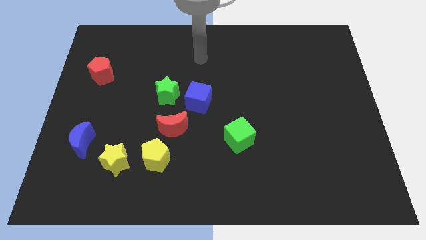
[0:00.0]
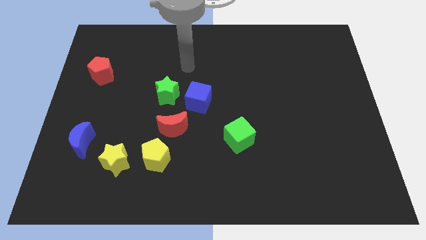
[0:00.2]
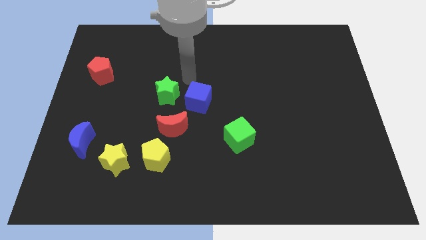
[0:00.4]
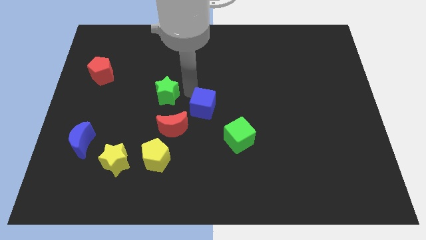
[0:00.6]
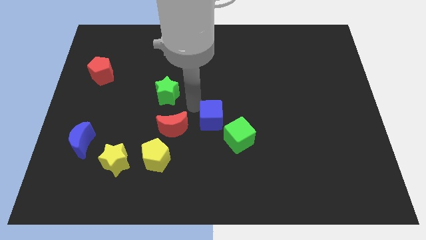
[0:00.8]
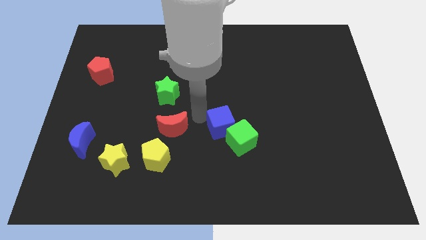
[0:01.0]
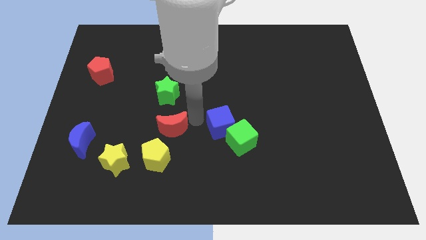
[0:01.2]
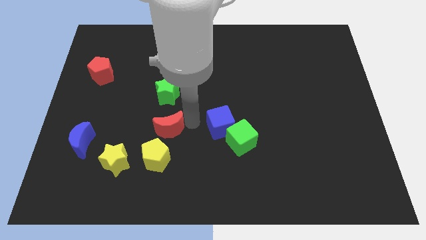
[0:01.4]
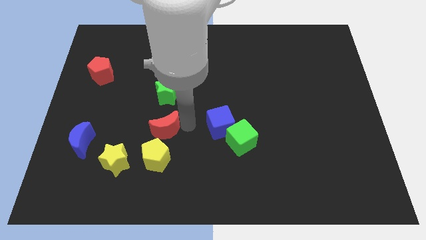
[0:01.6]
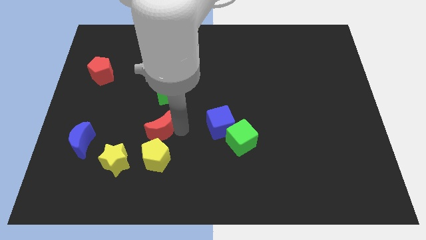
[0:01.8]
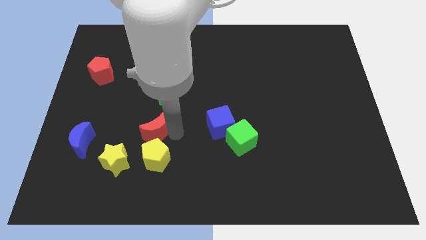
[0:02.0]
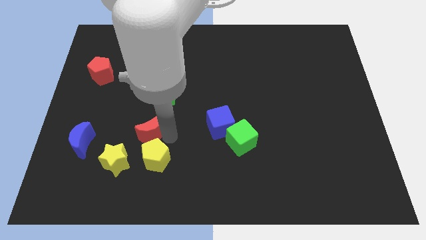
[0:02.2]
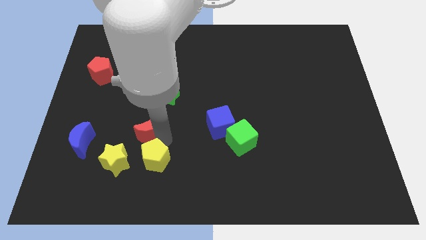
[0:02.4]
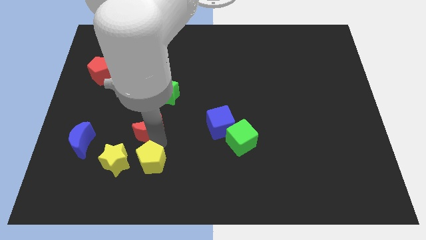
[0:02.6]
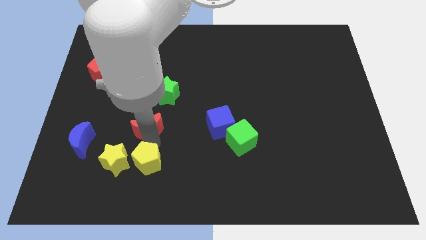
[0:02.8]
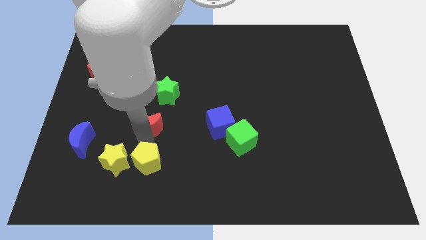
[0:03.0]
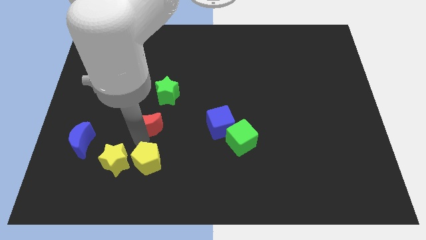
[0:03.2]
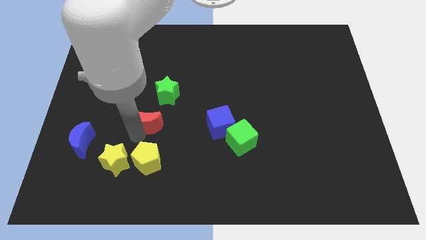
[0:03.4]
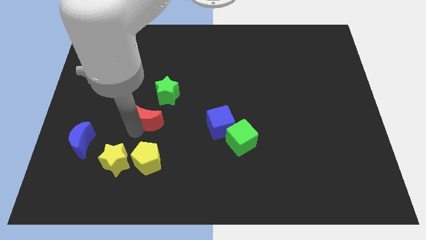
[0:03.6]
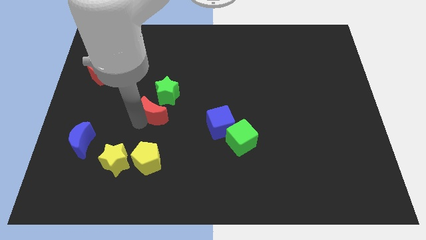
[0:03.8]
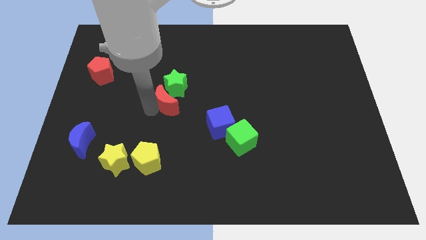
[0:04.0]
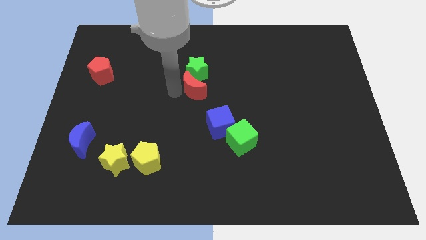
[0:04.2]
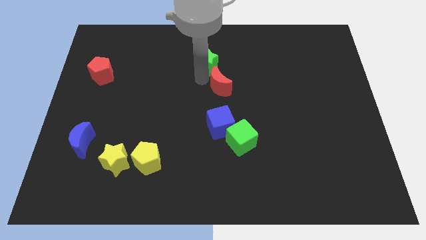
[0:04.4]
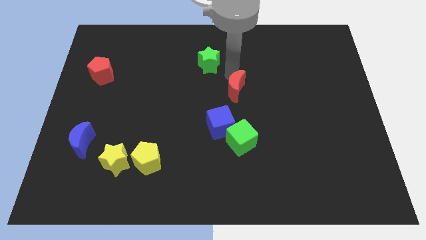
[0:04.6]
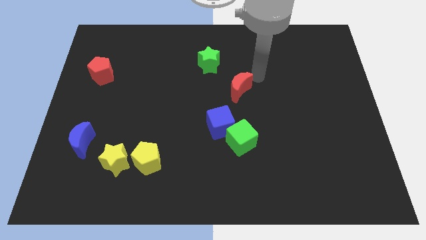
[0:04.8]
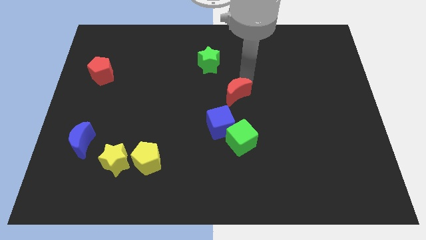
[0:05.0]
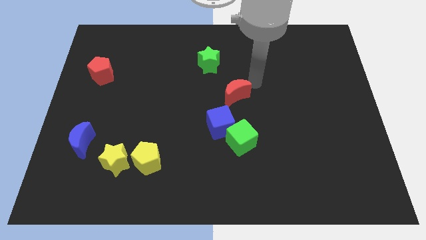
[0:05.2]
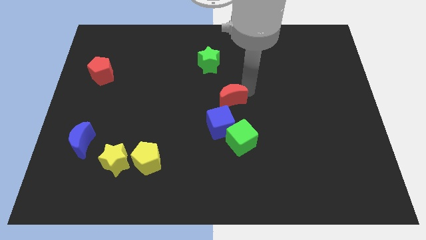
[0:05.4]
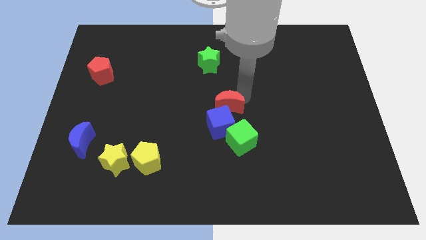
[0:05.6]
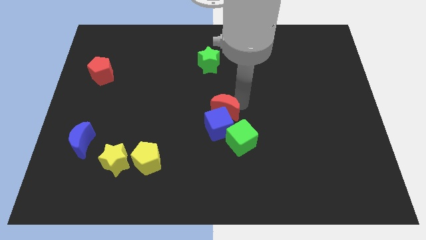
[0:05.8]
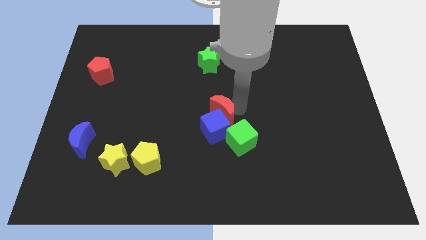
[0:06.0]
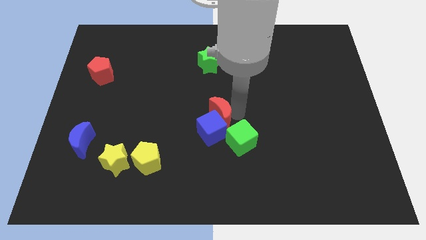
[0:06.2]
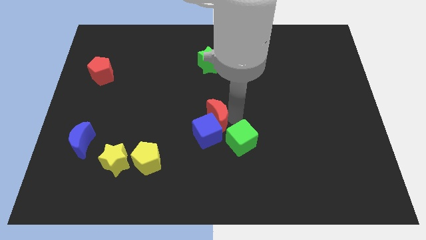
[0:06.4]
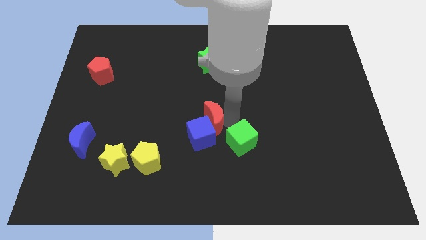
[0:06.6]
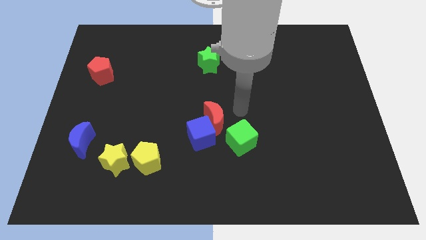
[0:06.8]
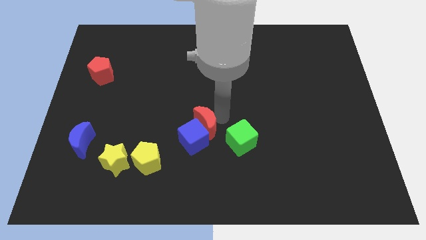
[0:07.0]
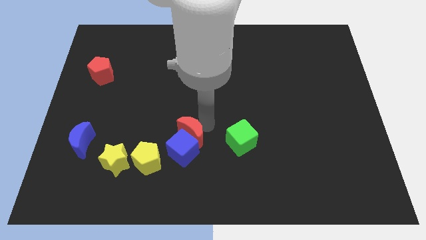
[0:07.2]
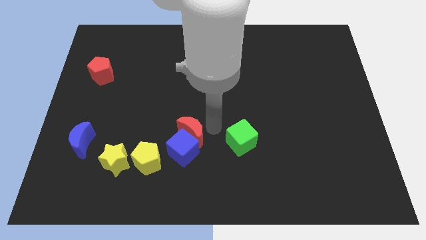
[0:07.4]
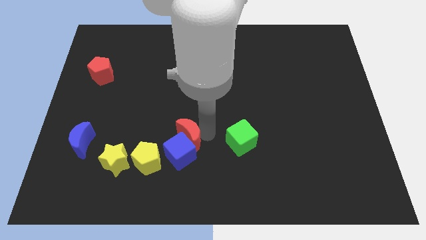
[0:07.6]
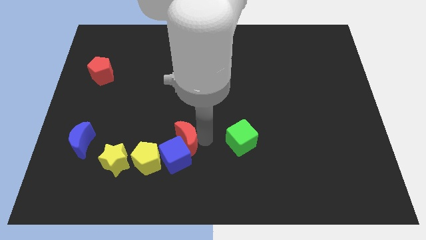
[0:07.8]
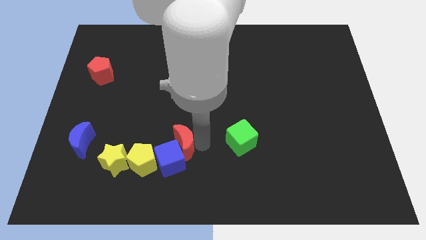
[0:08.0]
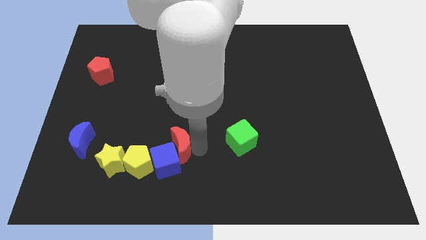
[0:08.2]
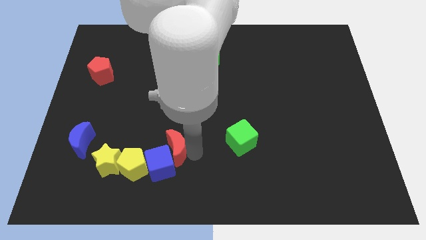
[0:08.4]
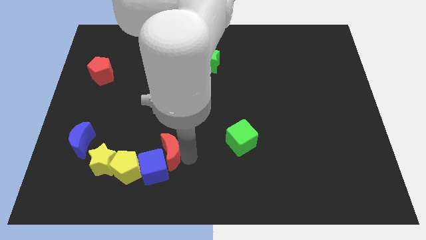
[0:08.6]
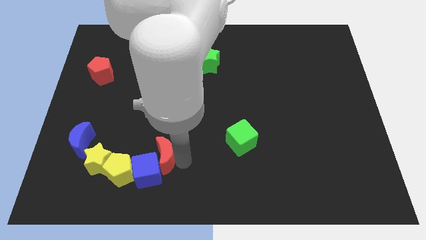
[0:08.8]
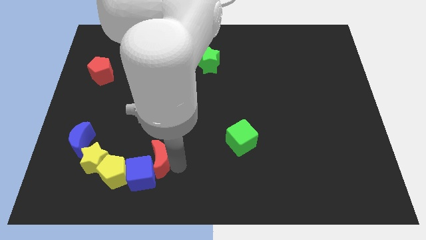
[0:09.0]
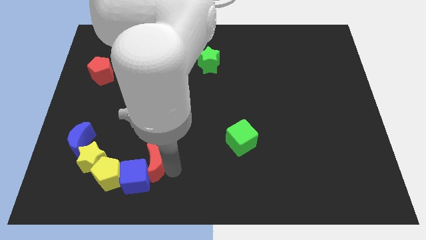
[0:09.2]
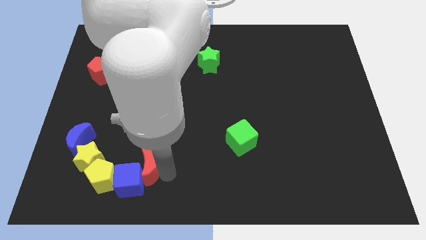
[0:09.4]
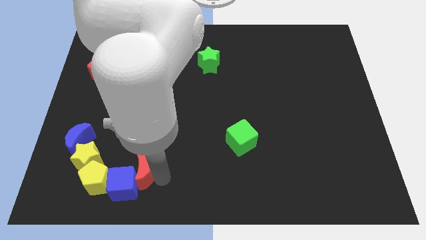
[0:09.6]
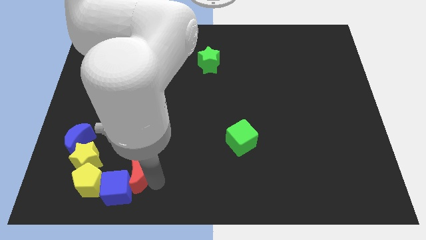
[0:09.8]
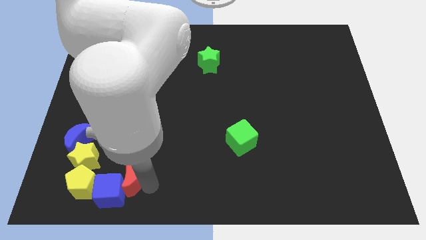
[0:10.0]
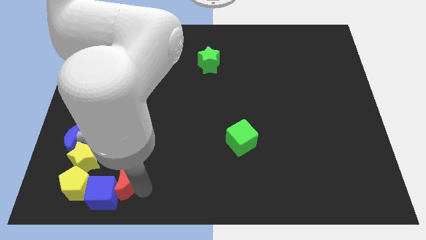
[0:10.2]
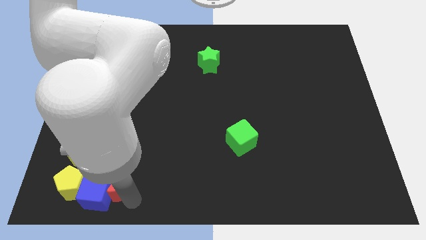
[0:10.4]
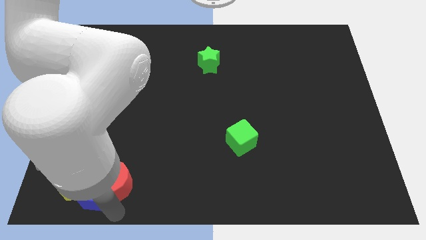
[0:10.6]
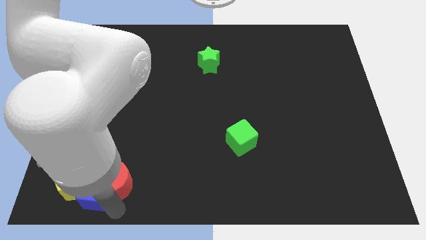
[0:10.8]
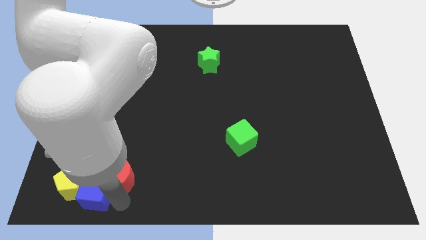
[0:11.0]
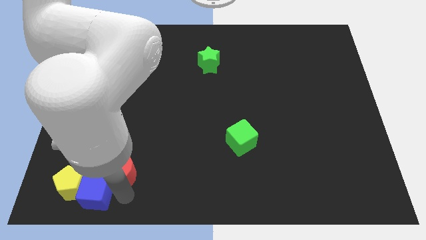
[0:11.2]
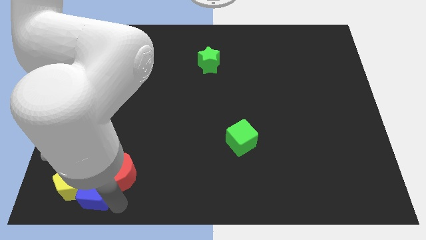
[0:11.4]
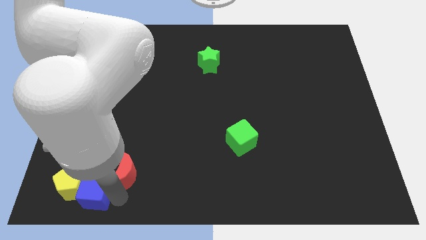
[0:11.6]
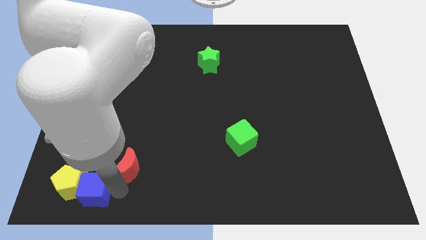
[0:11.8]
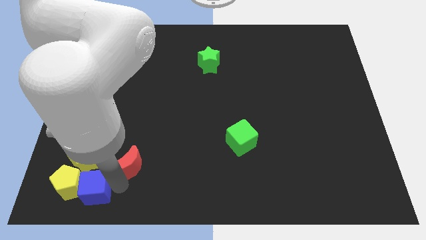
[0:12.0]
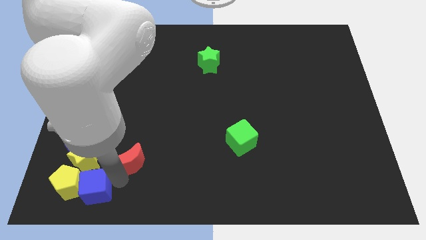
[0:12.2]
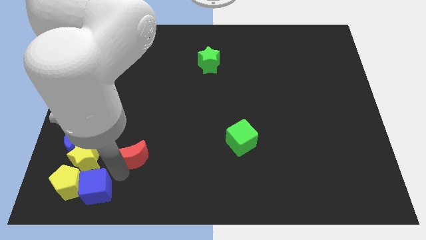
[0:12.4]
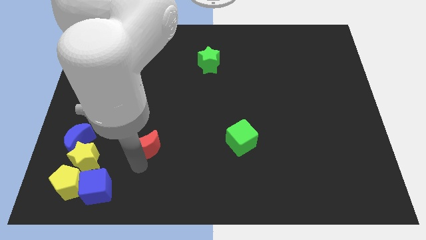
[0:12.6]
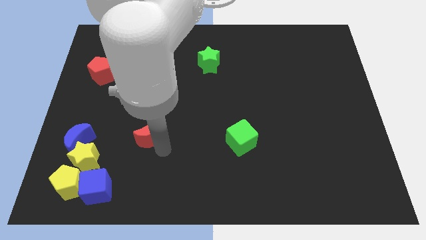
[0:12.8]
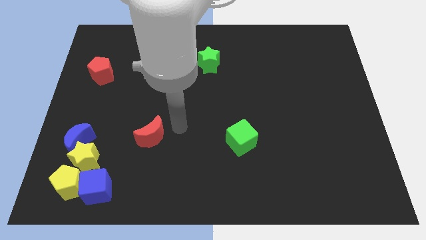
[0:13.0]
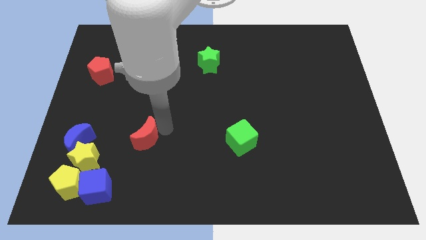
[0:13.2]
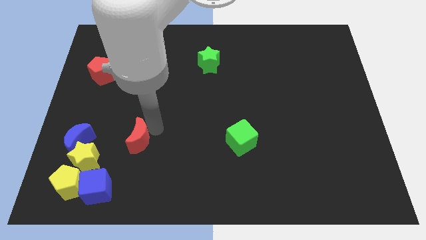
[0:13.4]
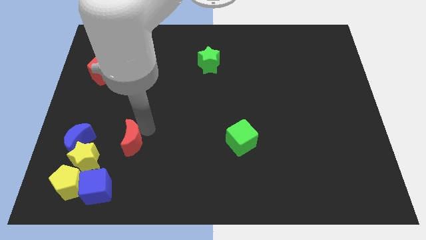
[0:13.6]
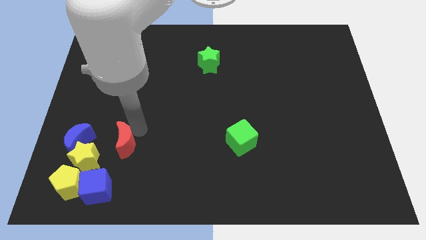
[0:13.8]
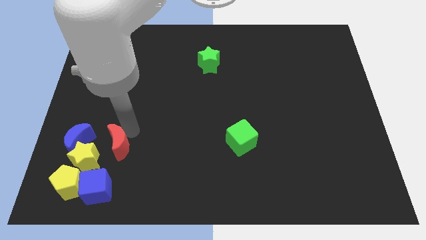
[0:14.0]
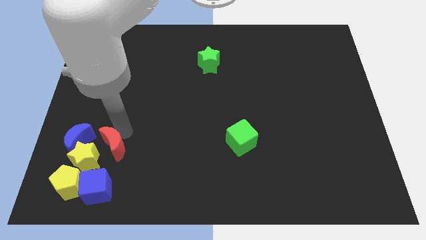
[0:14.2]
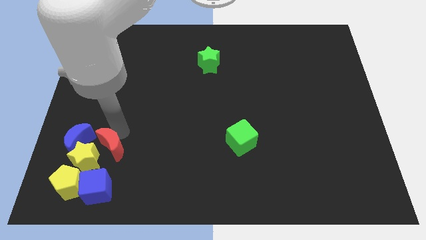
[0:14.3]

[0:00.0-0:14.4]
slide the red moon to the yellow star
